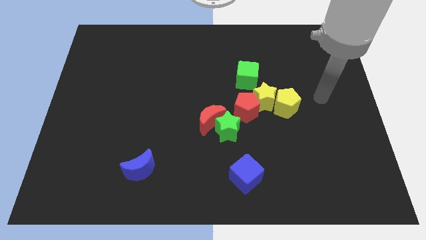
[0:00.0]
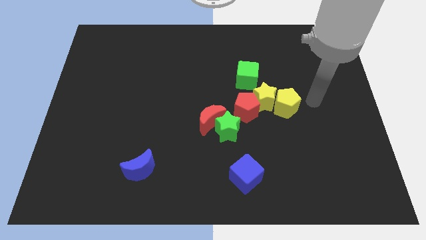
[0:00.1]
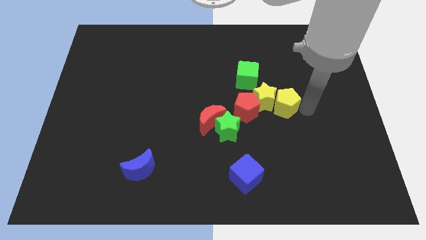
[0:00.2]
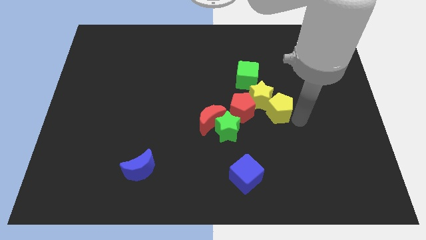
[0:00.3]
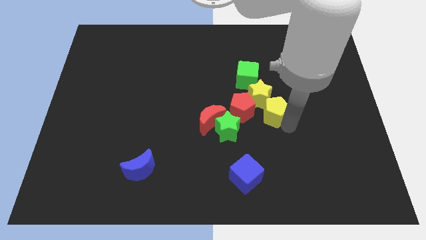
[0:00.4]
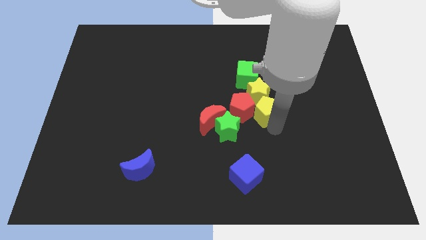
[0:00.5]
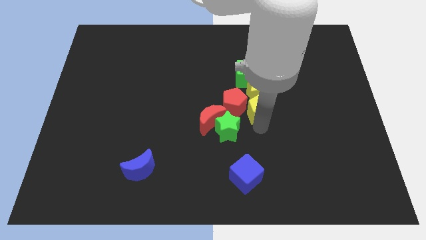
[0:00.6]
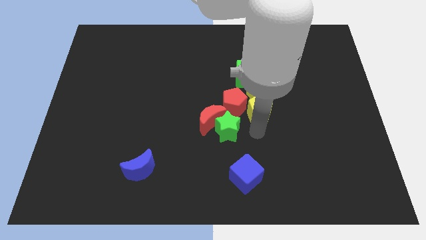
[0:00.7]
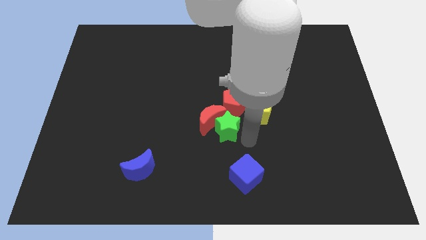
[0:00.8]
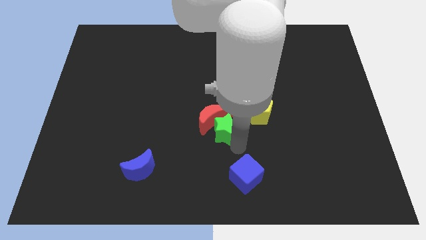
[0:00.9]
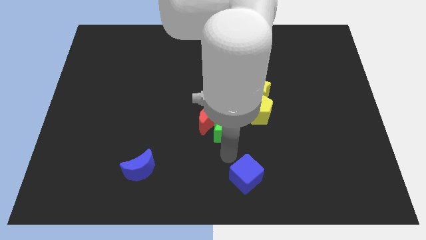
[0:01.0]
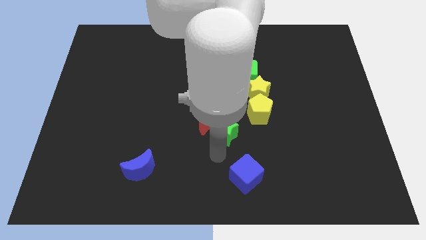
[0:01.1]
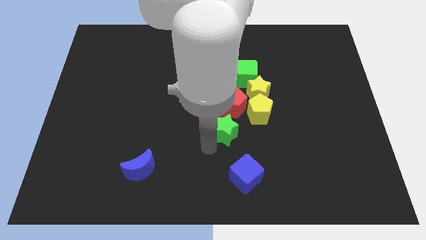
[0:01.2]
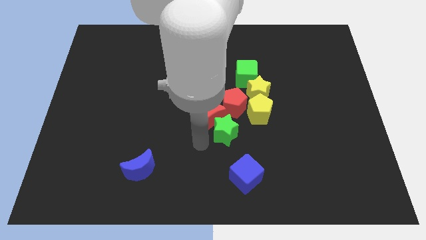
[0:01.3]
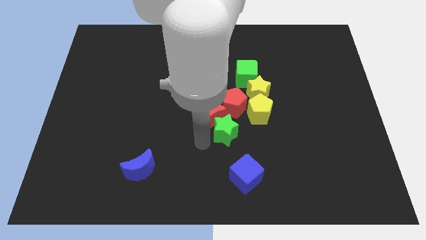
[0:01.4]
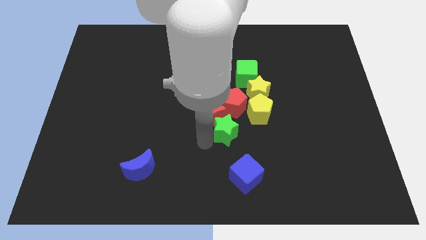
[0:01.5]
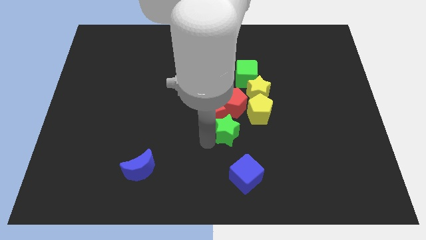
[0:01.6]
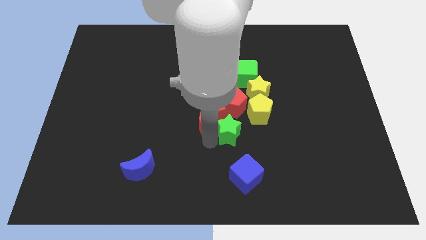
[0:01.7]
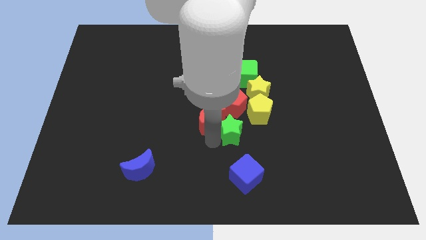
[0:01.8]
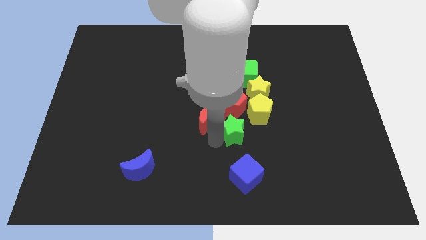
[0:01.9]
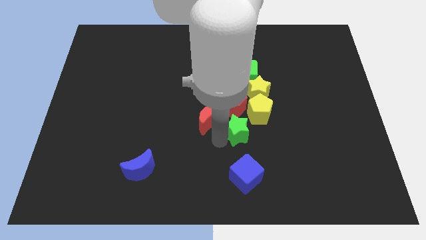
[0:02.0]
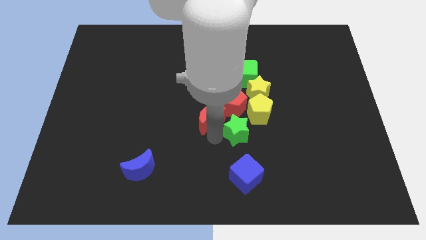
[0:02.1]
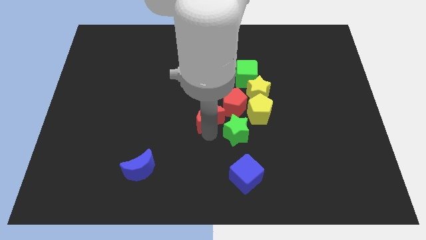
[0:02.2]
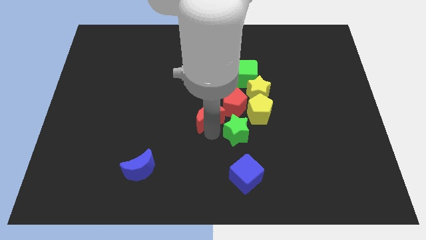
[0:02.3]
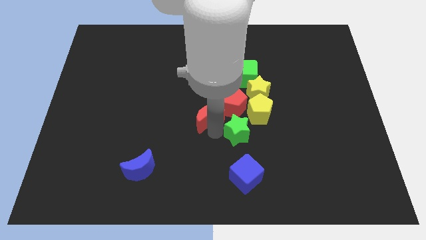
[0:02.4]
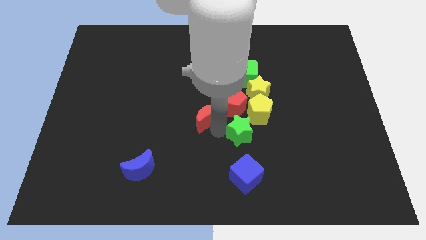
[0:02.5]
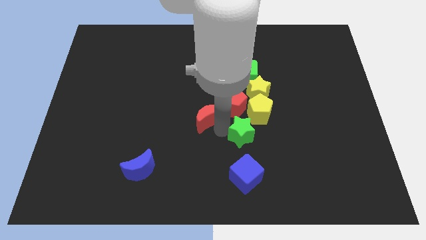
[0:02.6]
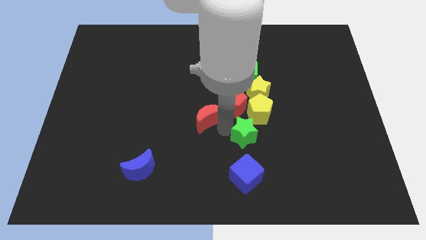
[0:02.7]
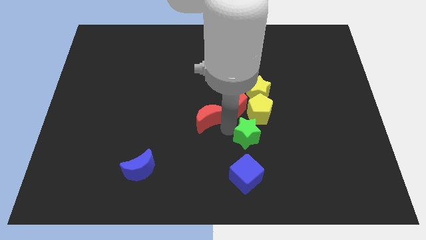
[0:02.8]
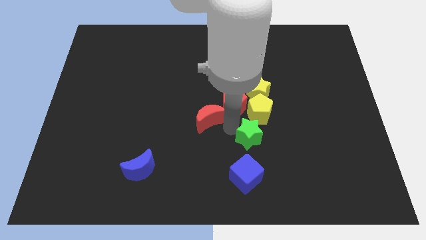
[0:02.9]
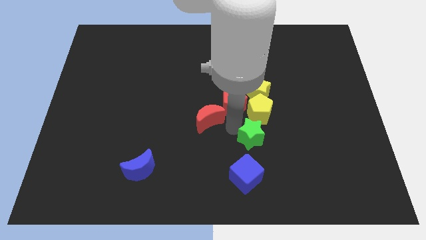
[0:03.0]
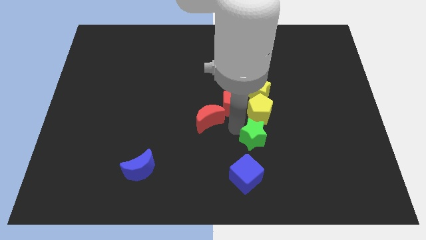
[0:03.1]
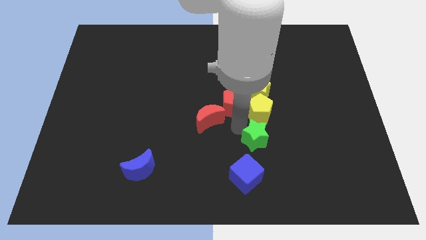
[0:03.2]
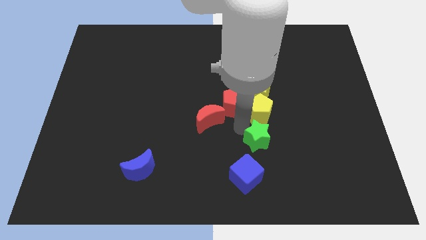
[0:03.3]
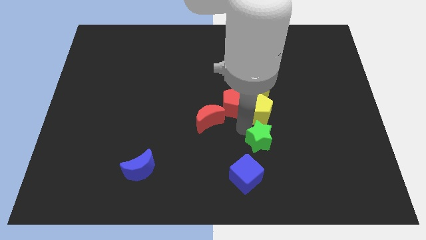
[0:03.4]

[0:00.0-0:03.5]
move the green star to the right somewhat

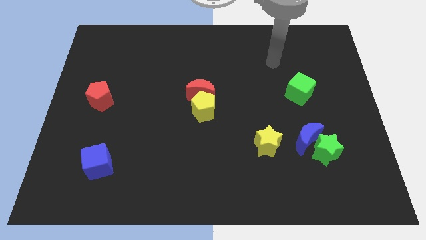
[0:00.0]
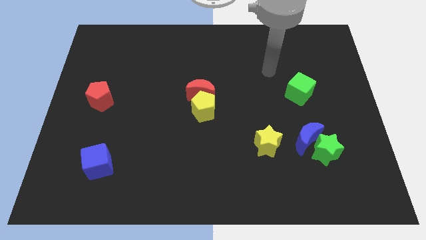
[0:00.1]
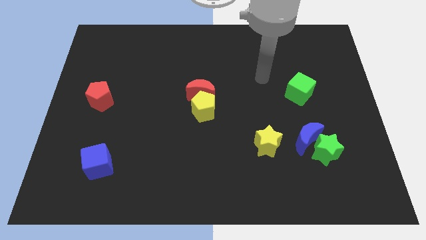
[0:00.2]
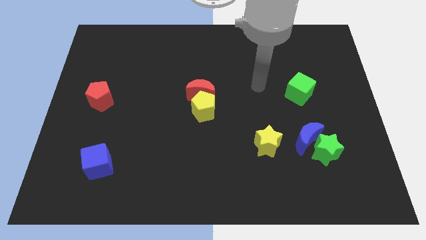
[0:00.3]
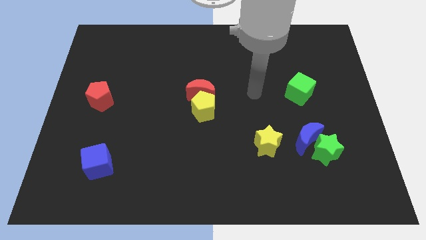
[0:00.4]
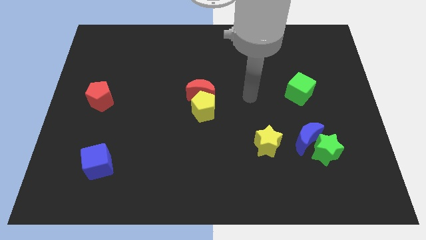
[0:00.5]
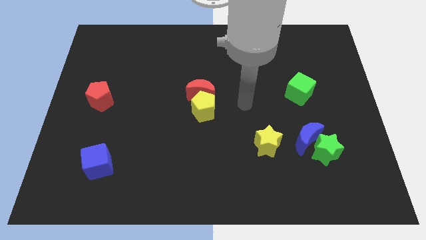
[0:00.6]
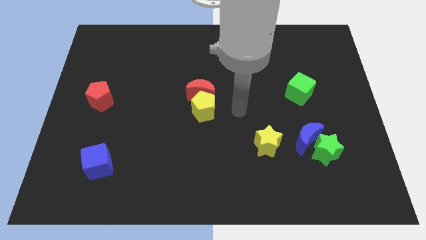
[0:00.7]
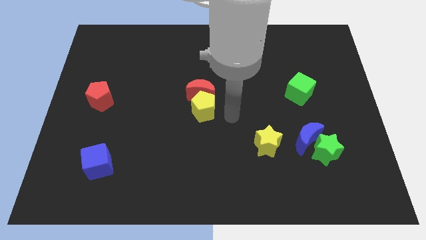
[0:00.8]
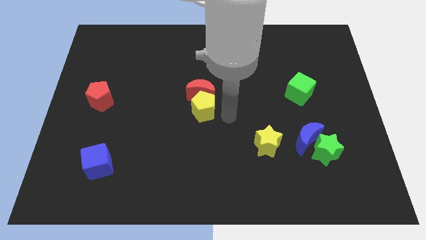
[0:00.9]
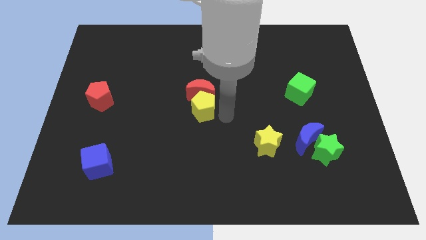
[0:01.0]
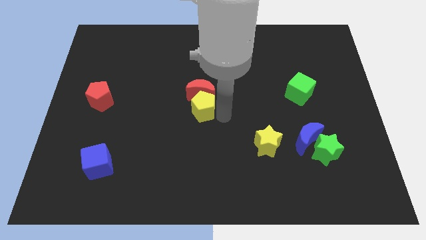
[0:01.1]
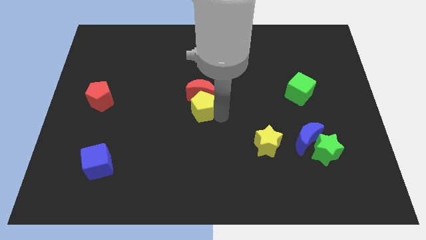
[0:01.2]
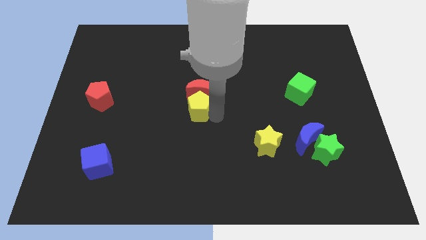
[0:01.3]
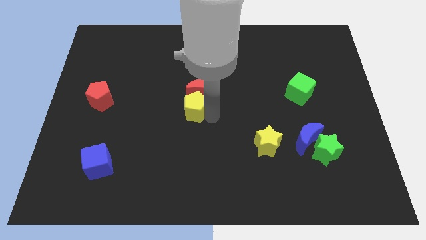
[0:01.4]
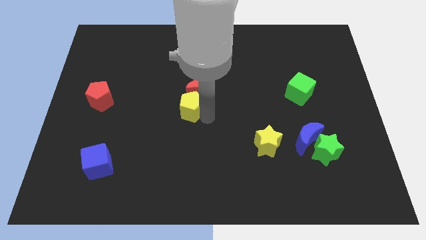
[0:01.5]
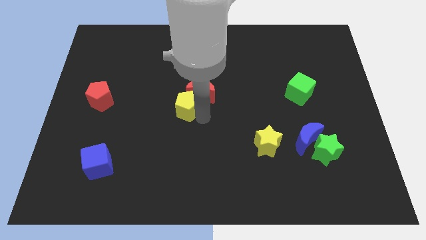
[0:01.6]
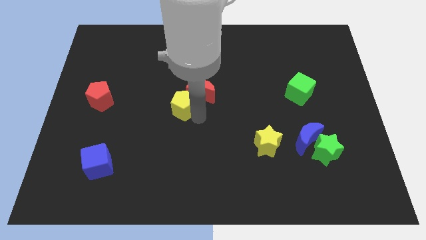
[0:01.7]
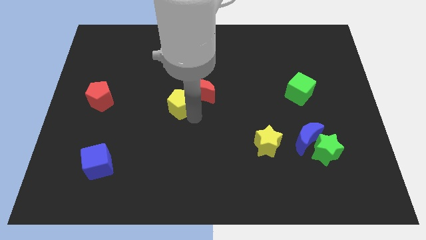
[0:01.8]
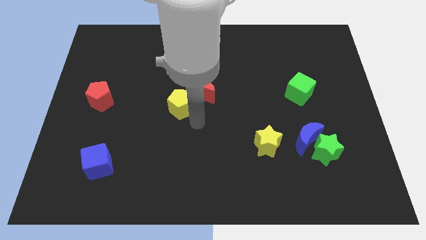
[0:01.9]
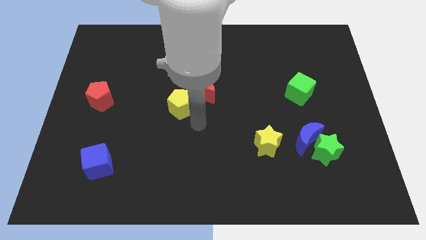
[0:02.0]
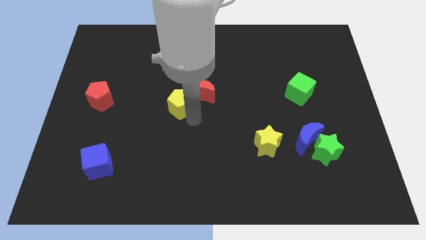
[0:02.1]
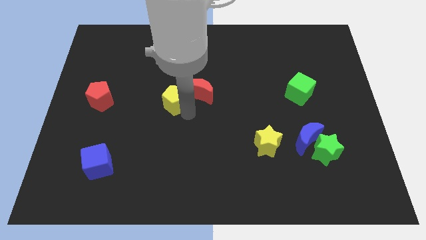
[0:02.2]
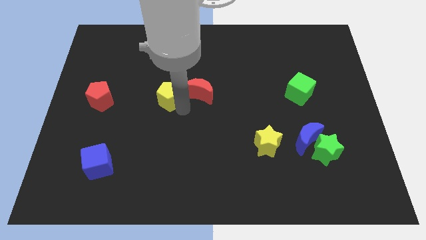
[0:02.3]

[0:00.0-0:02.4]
push the yellow pentagon up and left a bit

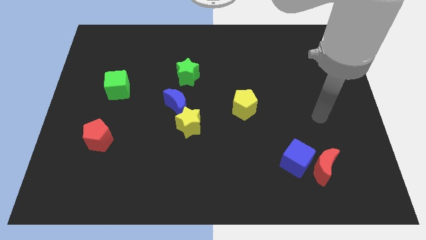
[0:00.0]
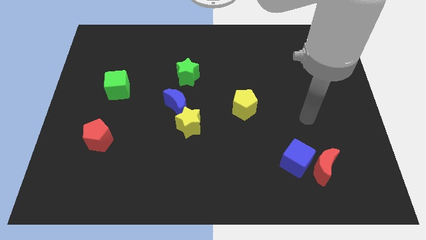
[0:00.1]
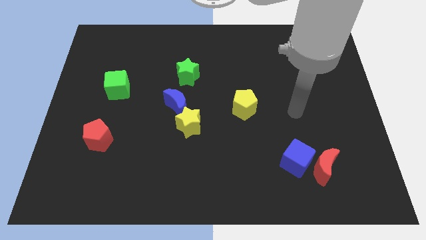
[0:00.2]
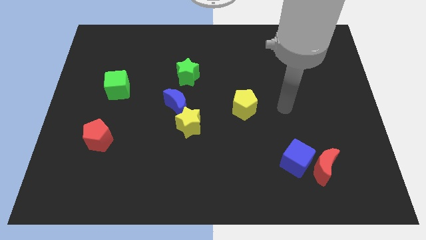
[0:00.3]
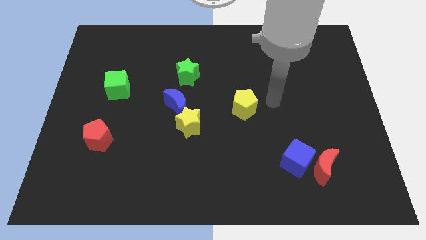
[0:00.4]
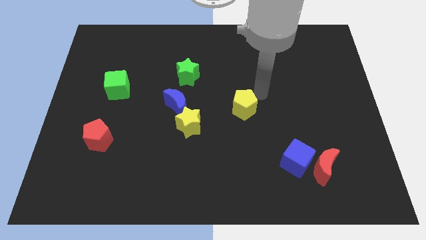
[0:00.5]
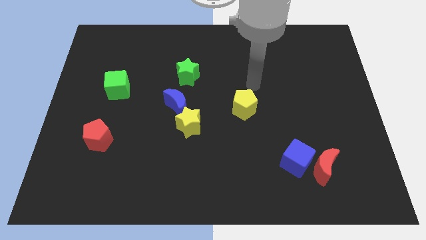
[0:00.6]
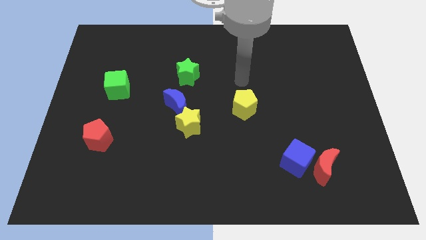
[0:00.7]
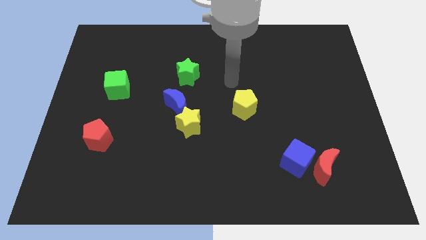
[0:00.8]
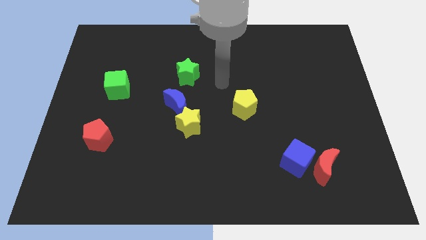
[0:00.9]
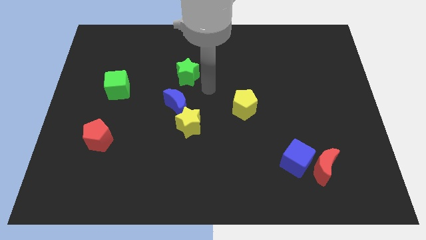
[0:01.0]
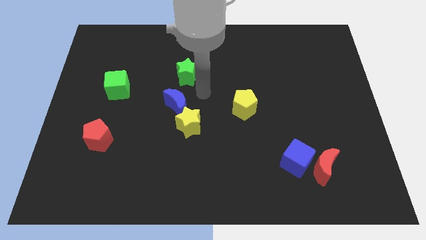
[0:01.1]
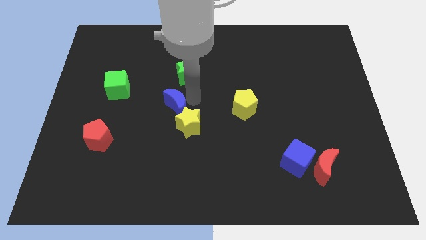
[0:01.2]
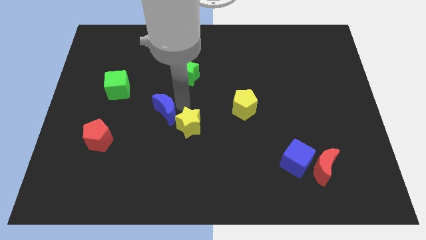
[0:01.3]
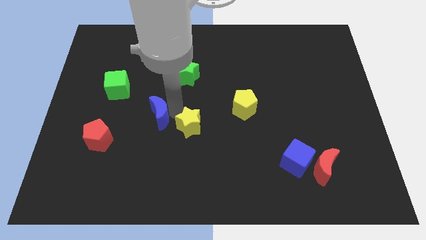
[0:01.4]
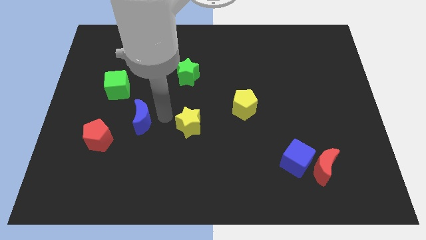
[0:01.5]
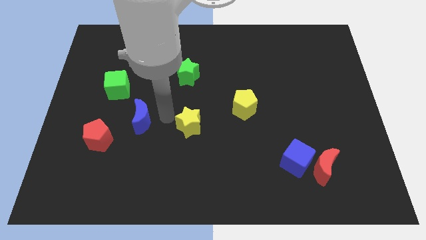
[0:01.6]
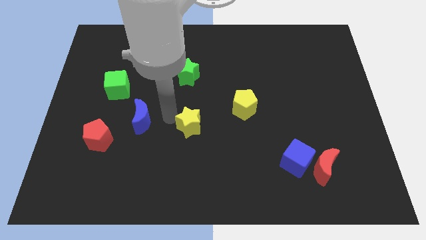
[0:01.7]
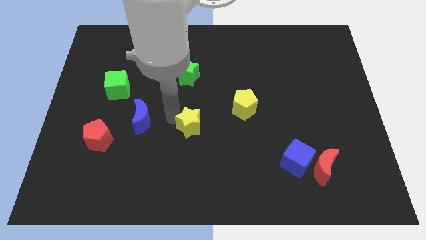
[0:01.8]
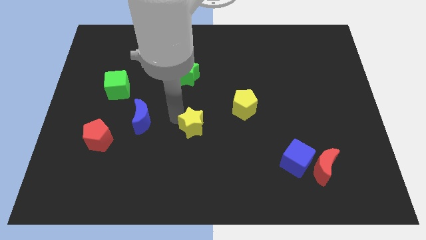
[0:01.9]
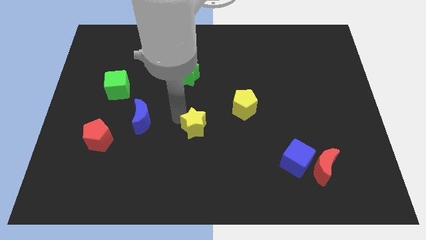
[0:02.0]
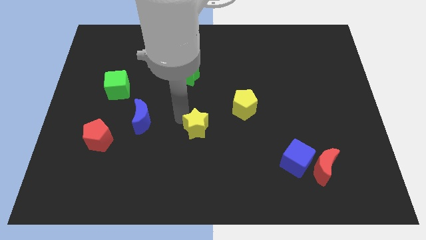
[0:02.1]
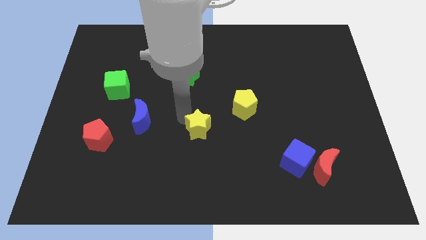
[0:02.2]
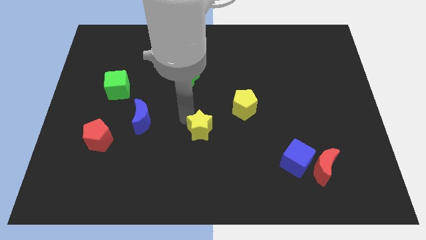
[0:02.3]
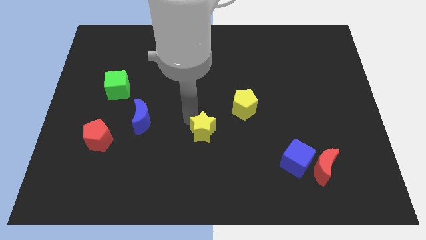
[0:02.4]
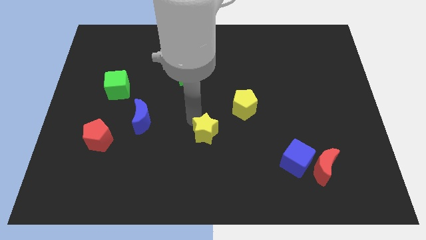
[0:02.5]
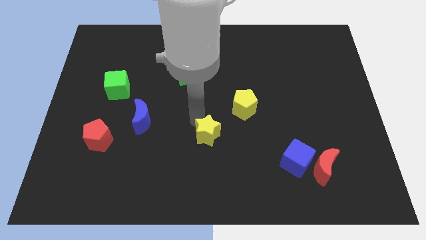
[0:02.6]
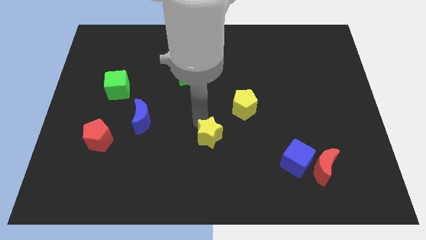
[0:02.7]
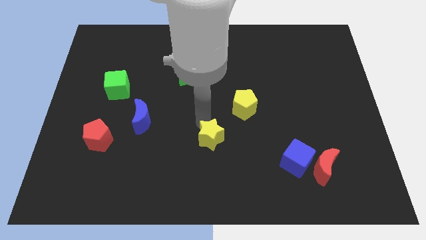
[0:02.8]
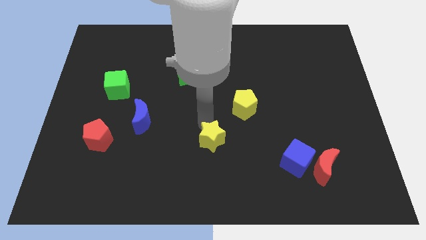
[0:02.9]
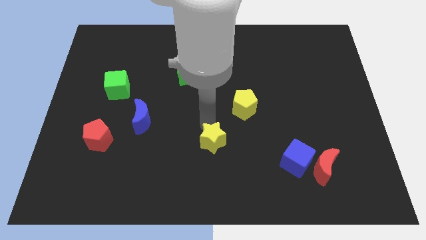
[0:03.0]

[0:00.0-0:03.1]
push the yellow star somewhat diagonally down and right
